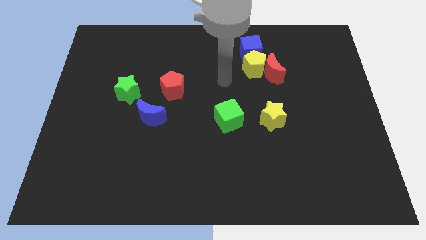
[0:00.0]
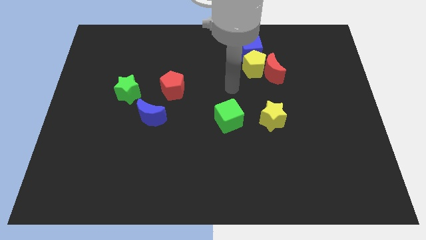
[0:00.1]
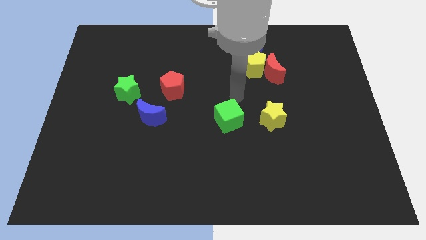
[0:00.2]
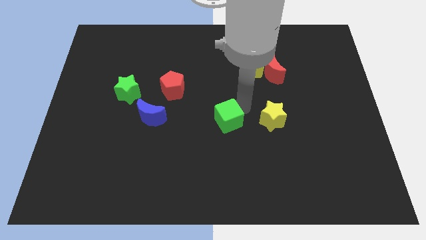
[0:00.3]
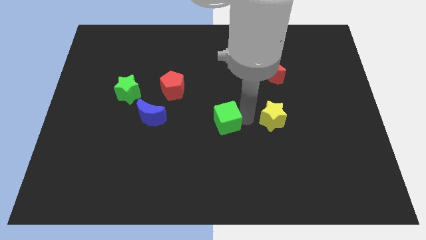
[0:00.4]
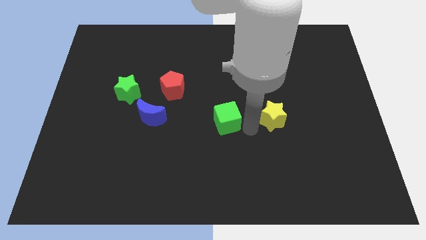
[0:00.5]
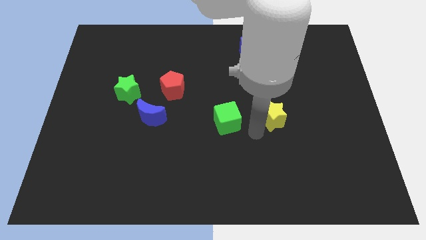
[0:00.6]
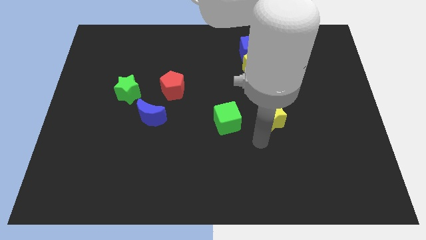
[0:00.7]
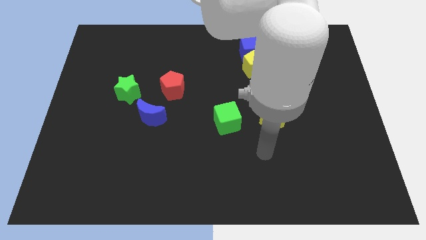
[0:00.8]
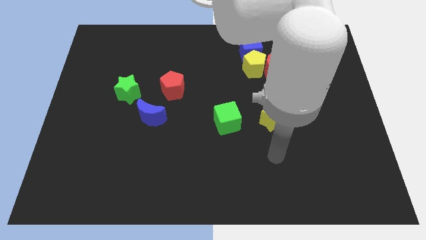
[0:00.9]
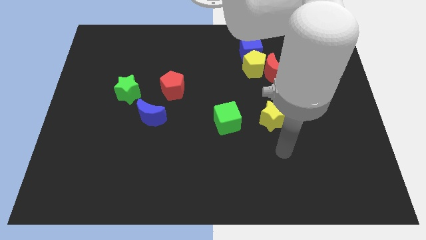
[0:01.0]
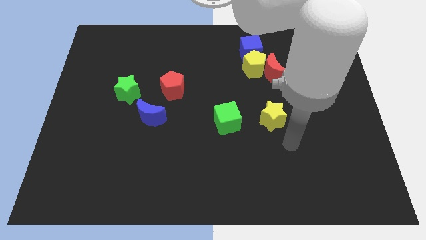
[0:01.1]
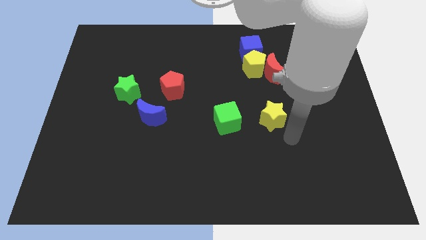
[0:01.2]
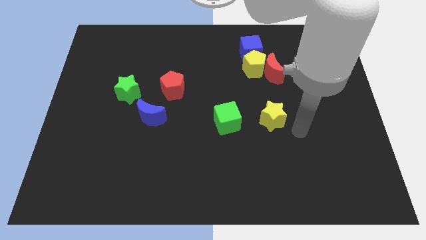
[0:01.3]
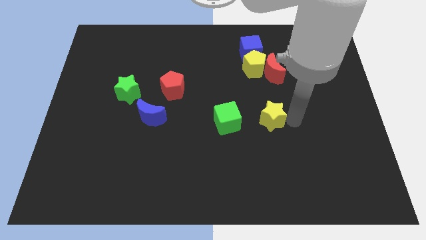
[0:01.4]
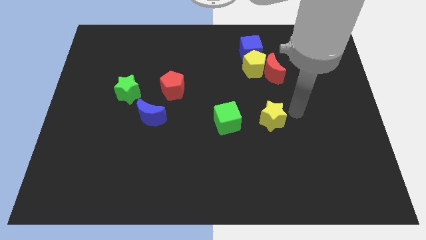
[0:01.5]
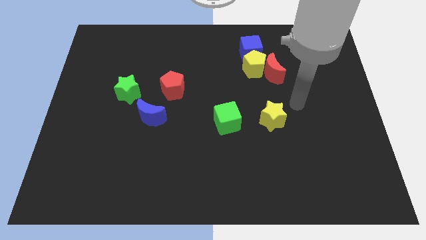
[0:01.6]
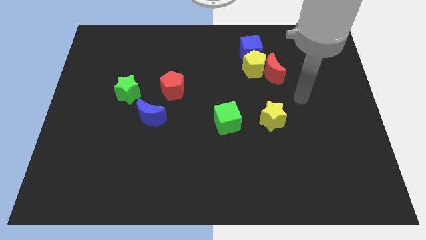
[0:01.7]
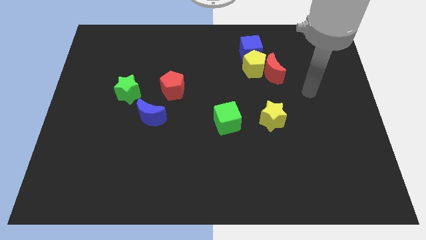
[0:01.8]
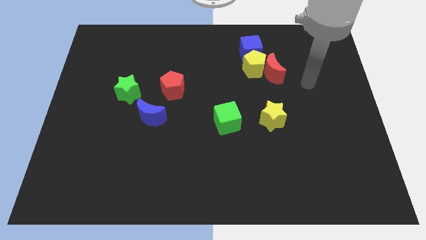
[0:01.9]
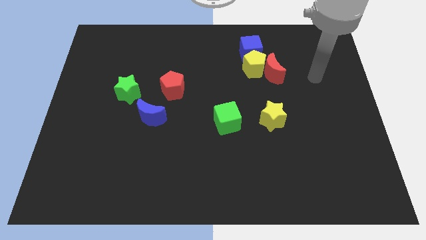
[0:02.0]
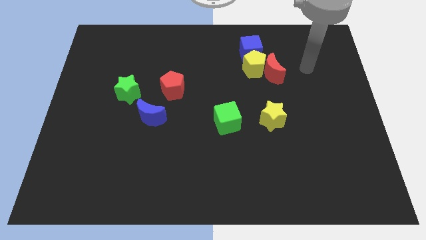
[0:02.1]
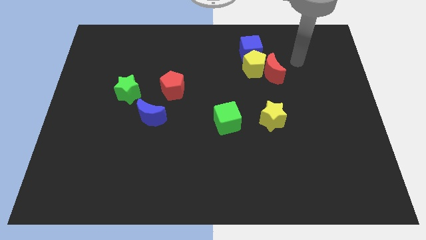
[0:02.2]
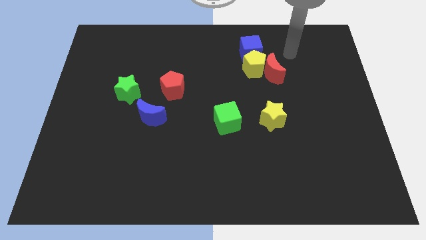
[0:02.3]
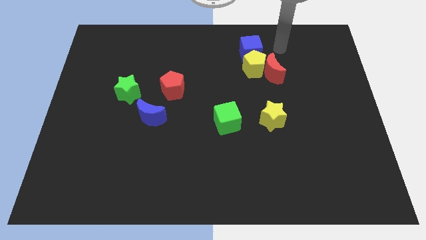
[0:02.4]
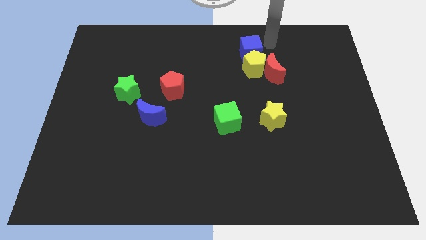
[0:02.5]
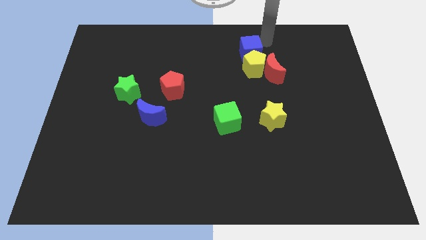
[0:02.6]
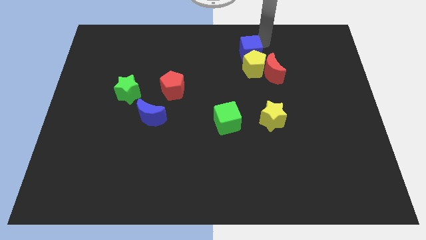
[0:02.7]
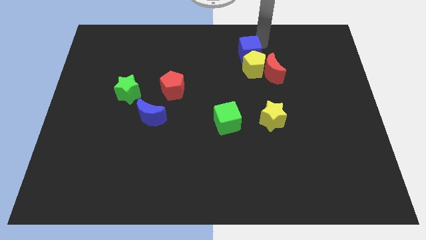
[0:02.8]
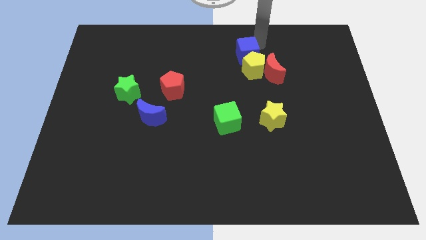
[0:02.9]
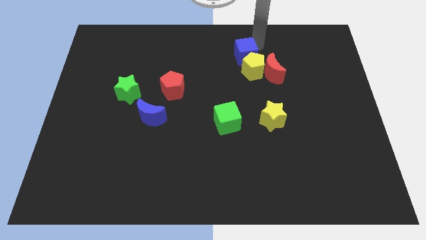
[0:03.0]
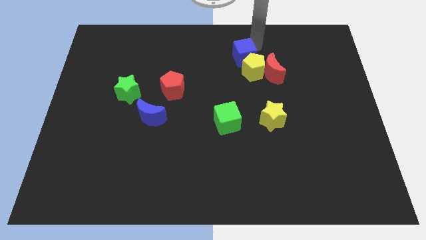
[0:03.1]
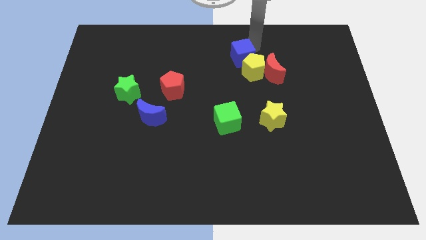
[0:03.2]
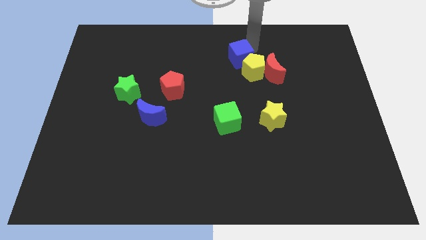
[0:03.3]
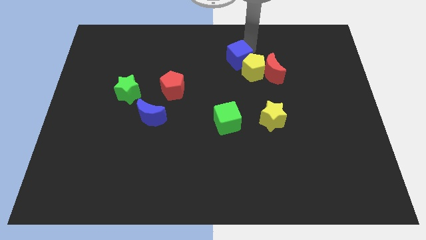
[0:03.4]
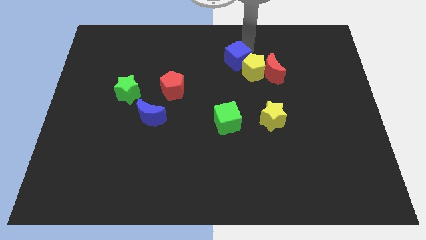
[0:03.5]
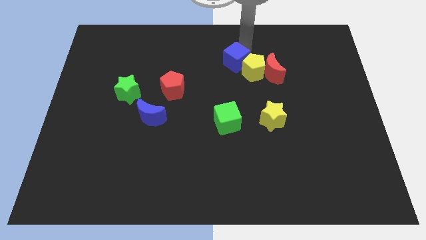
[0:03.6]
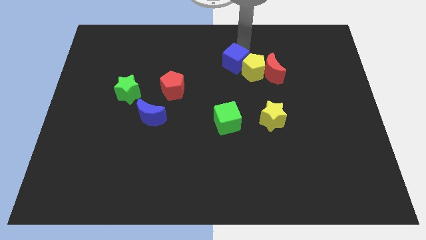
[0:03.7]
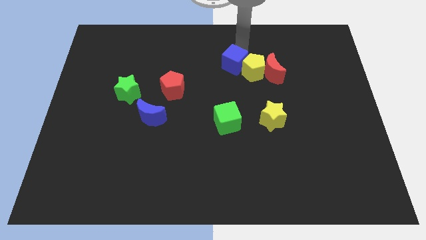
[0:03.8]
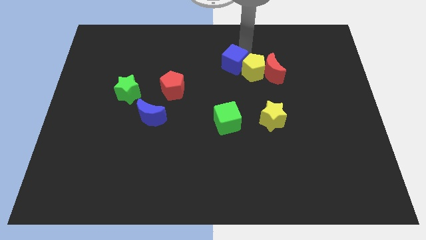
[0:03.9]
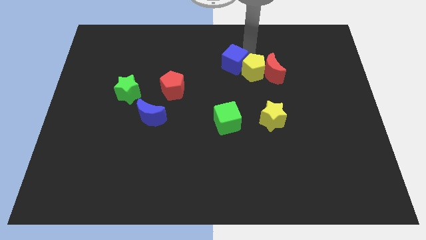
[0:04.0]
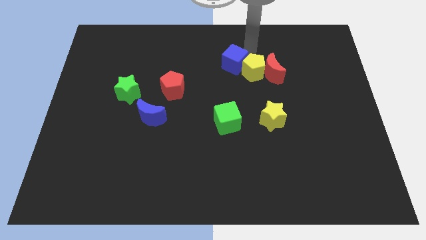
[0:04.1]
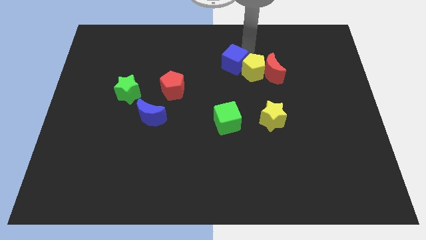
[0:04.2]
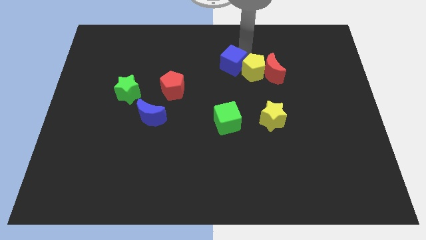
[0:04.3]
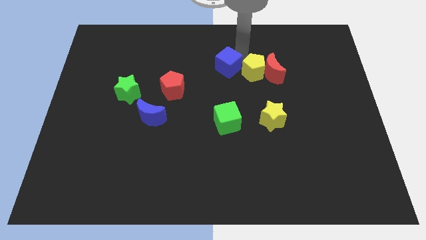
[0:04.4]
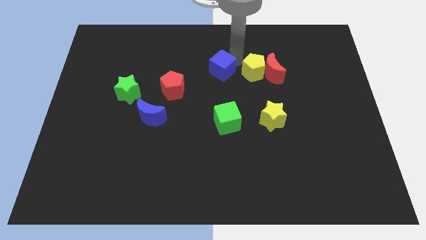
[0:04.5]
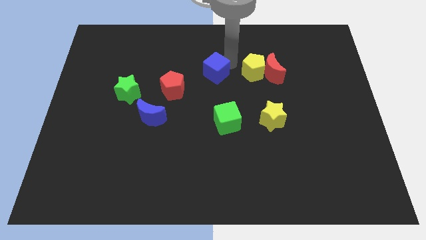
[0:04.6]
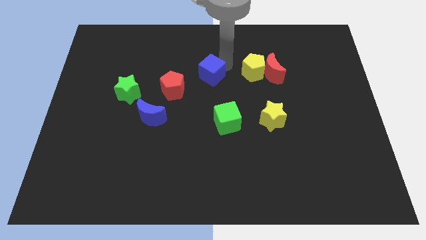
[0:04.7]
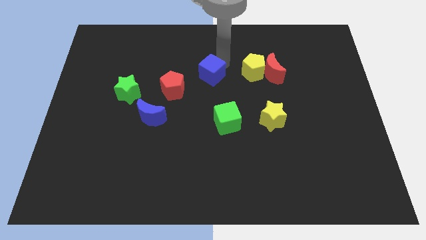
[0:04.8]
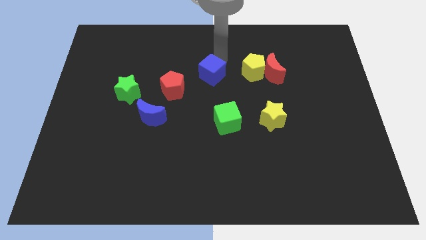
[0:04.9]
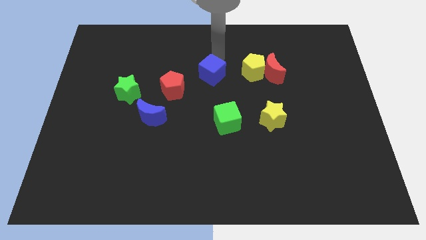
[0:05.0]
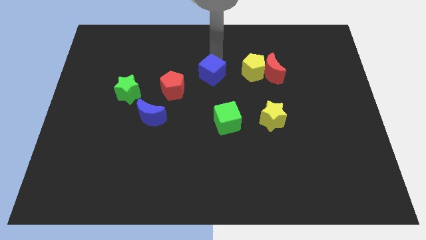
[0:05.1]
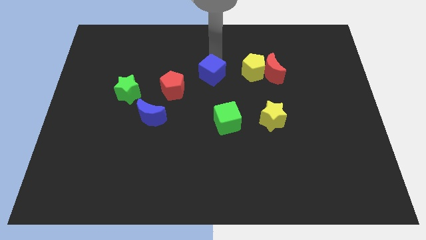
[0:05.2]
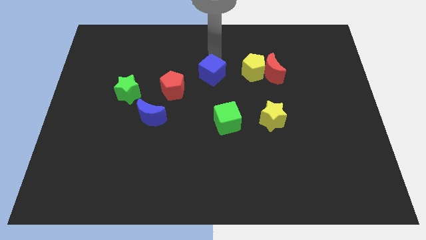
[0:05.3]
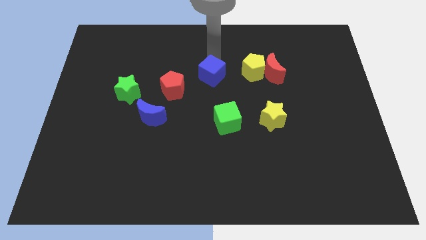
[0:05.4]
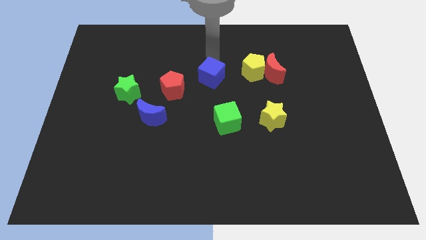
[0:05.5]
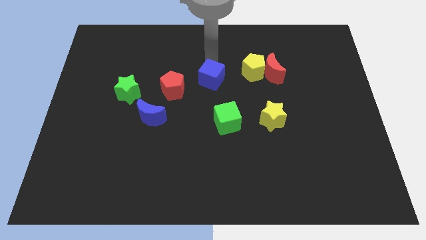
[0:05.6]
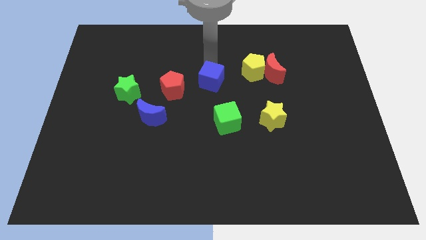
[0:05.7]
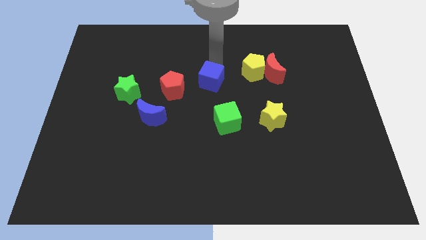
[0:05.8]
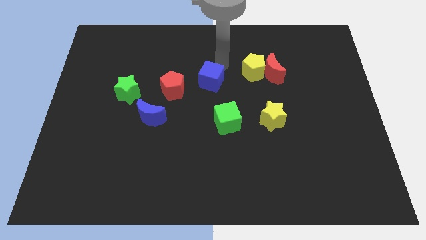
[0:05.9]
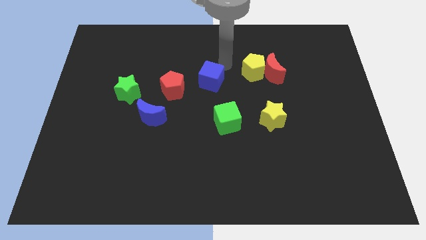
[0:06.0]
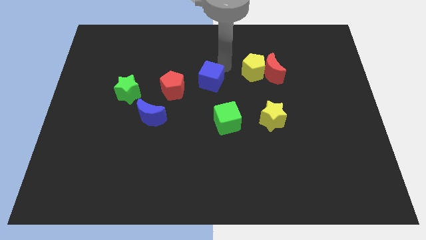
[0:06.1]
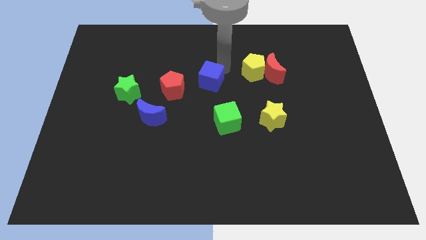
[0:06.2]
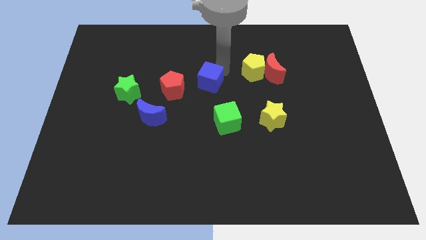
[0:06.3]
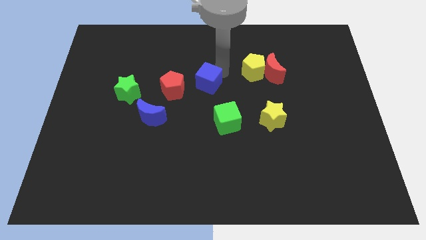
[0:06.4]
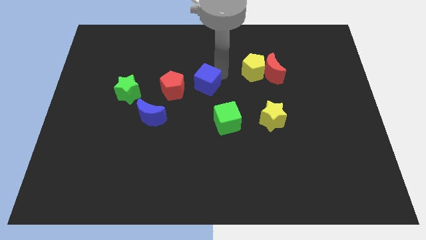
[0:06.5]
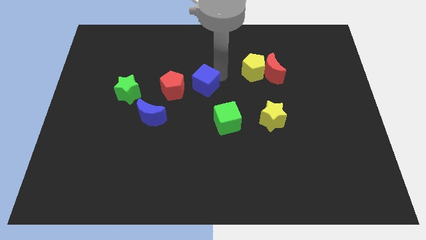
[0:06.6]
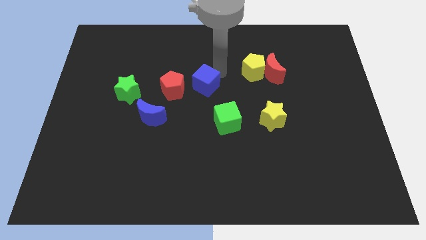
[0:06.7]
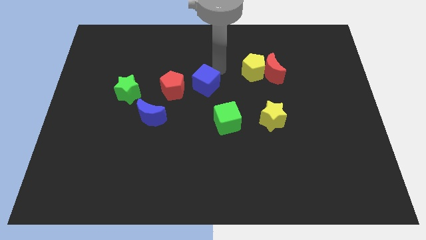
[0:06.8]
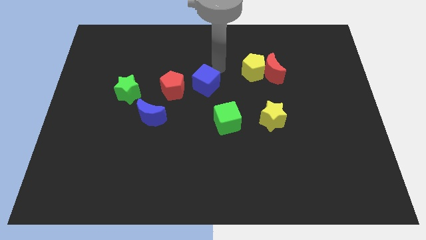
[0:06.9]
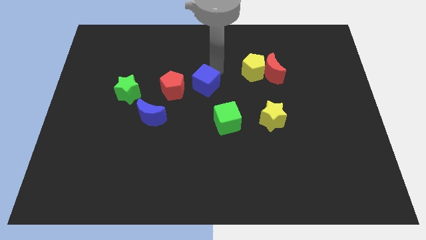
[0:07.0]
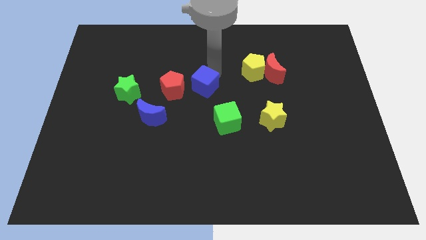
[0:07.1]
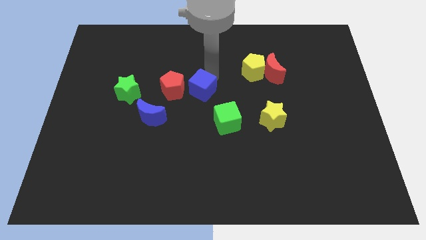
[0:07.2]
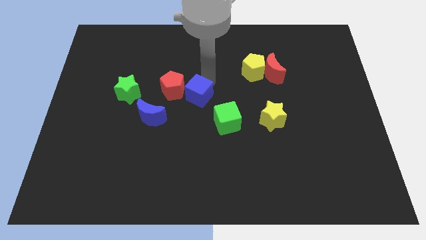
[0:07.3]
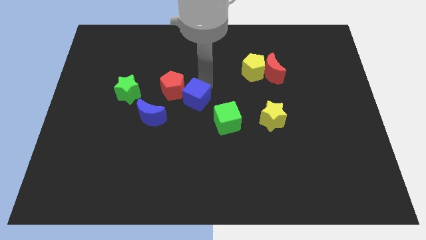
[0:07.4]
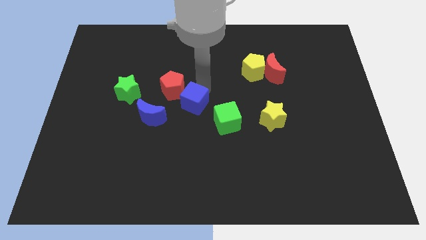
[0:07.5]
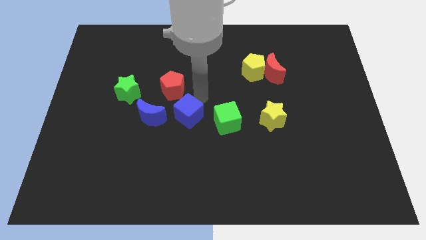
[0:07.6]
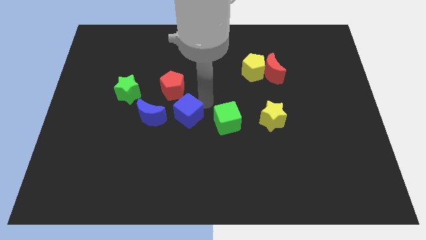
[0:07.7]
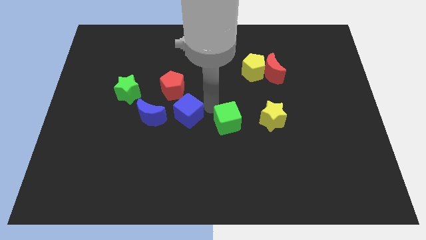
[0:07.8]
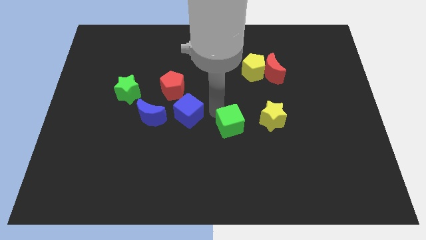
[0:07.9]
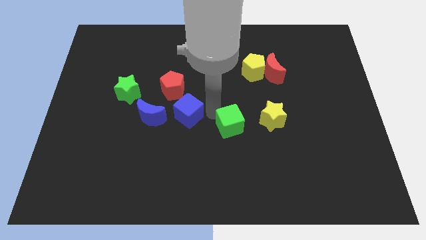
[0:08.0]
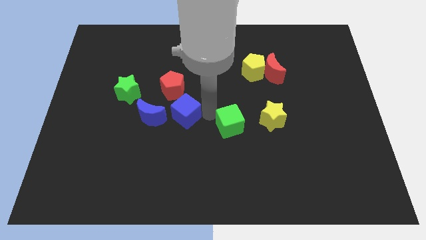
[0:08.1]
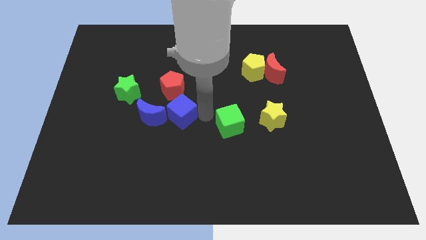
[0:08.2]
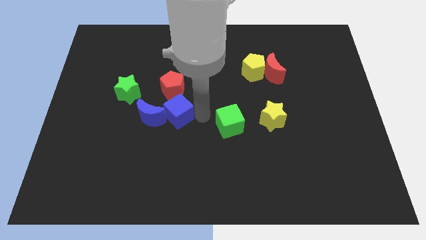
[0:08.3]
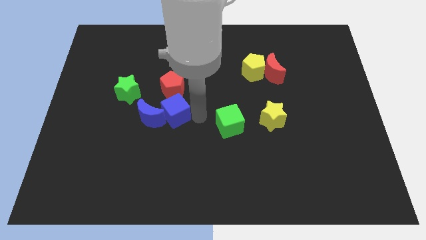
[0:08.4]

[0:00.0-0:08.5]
slide the blue cube next to the blue moon
